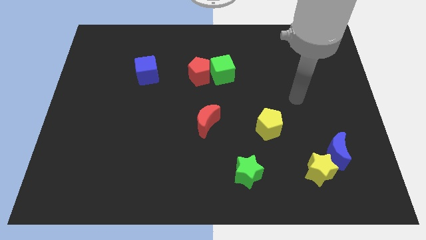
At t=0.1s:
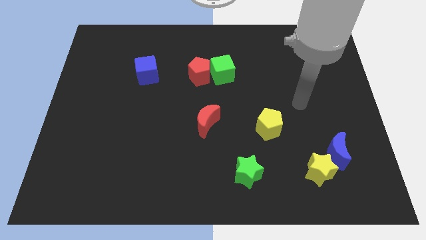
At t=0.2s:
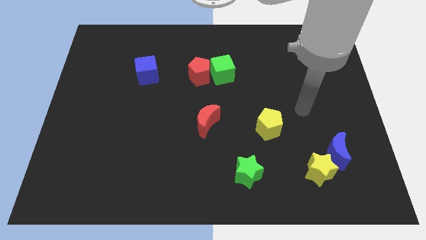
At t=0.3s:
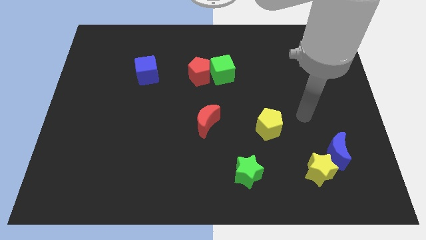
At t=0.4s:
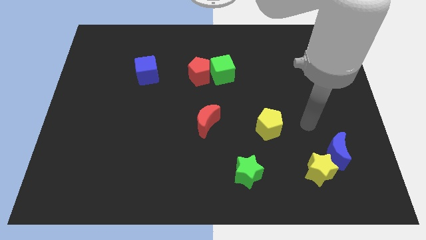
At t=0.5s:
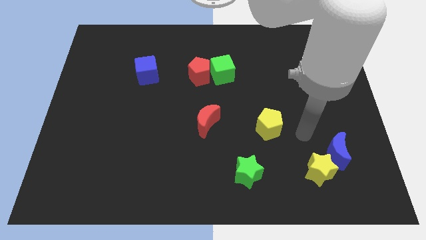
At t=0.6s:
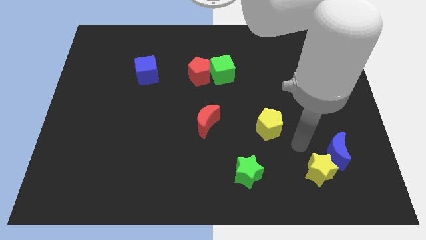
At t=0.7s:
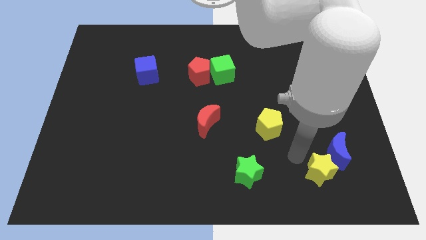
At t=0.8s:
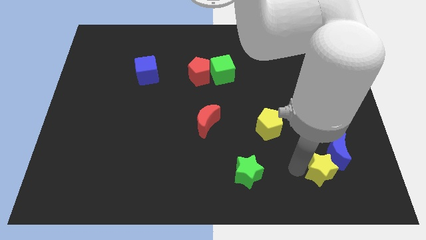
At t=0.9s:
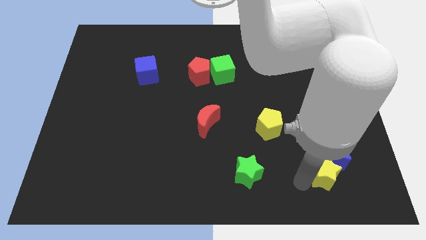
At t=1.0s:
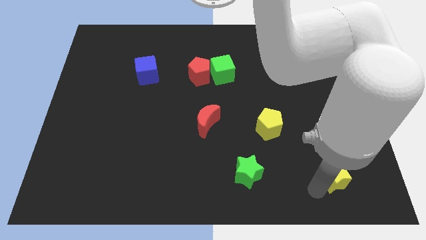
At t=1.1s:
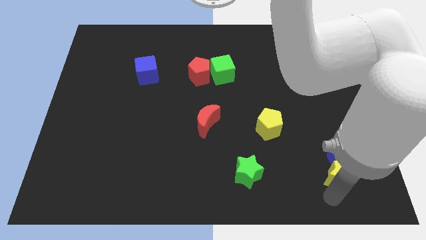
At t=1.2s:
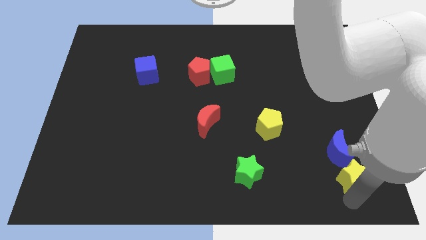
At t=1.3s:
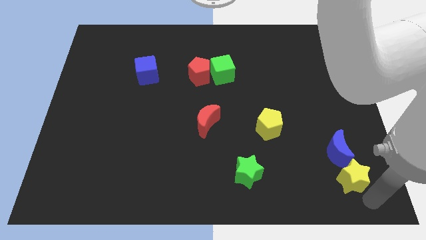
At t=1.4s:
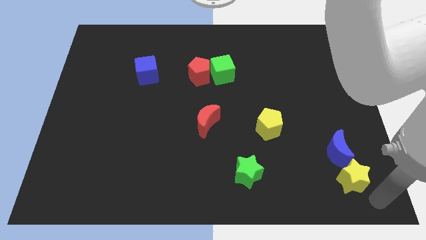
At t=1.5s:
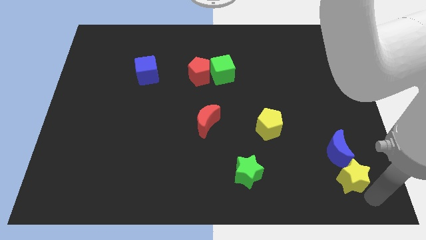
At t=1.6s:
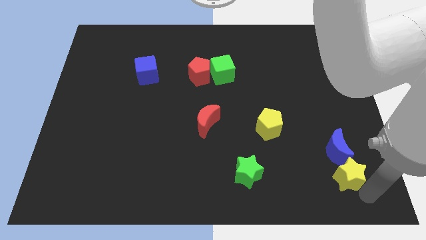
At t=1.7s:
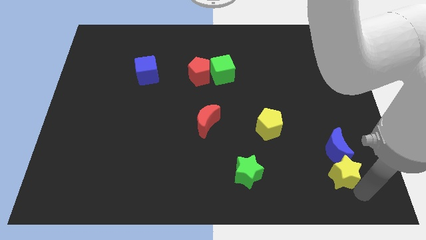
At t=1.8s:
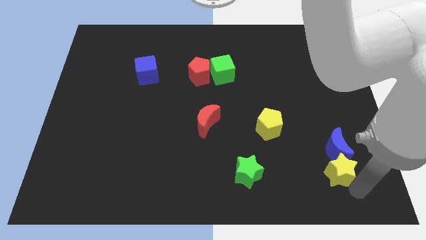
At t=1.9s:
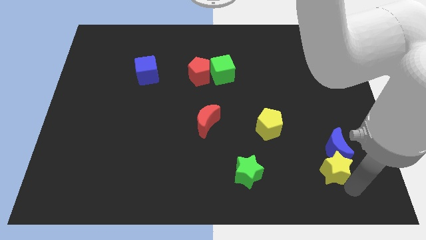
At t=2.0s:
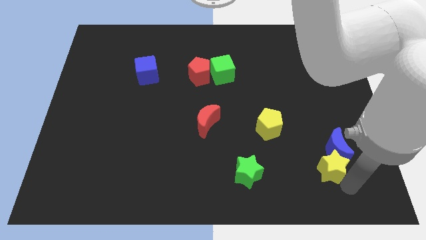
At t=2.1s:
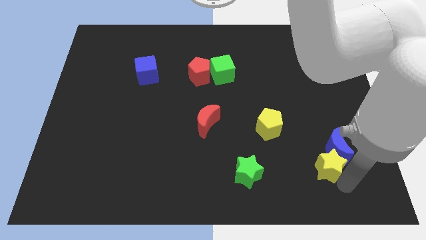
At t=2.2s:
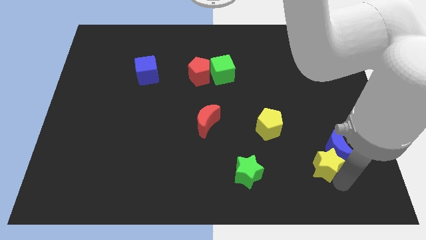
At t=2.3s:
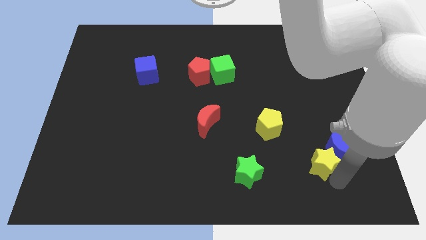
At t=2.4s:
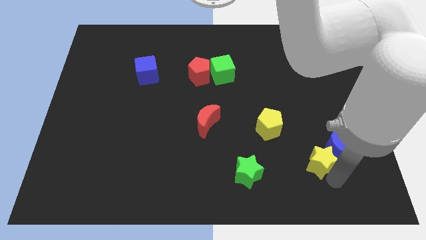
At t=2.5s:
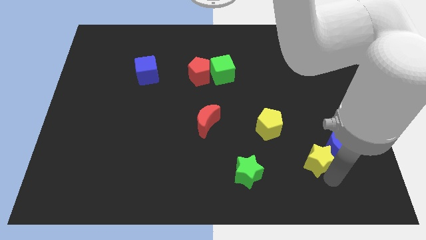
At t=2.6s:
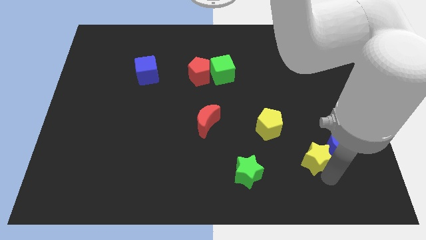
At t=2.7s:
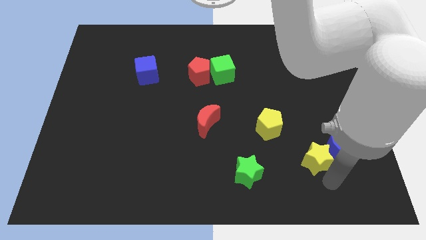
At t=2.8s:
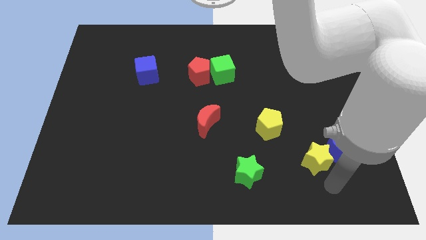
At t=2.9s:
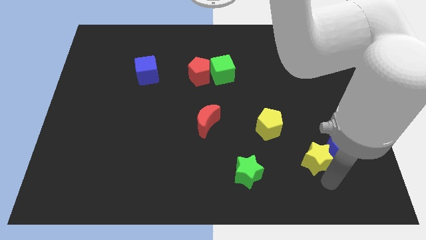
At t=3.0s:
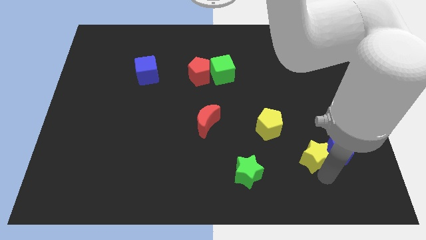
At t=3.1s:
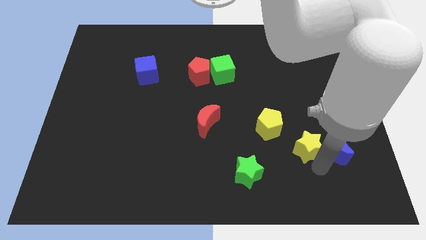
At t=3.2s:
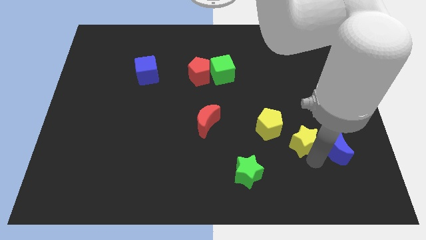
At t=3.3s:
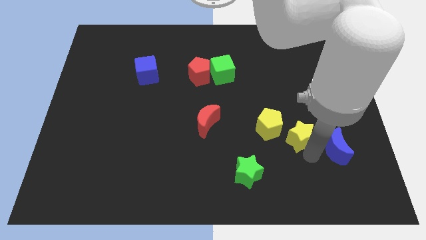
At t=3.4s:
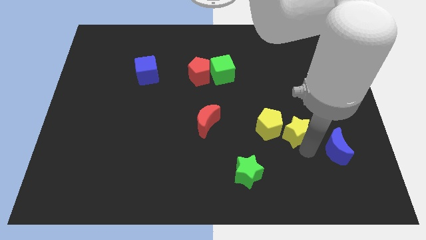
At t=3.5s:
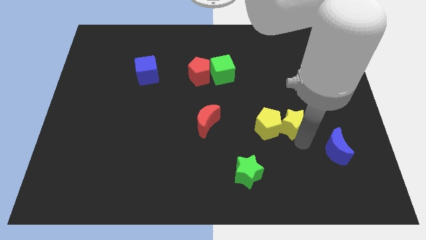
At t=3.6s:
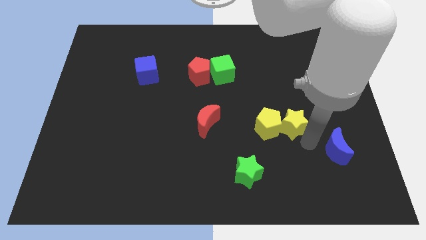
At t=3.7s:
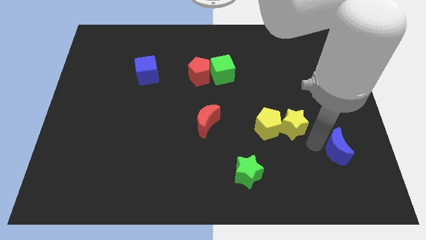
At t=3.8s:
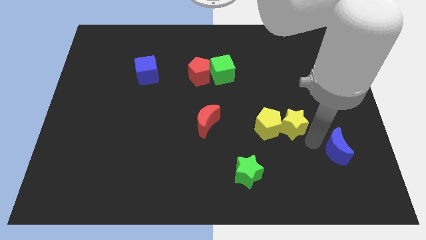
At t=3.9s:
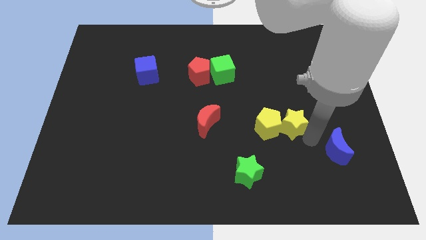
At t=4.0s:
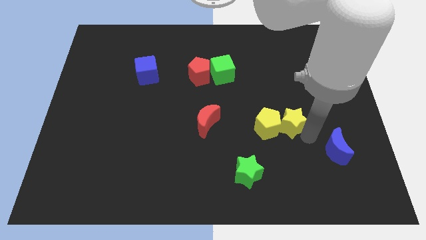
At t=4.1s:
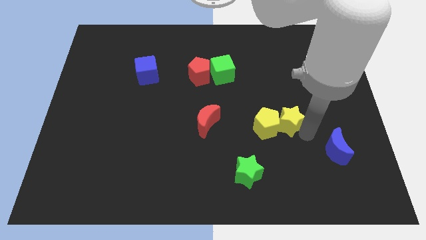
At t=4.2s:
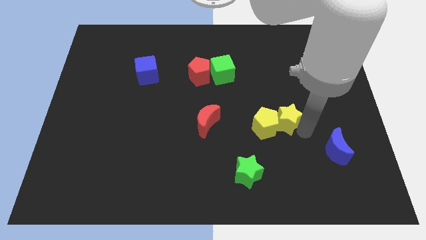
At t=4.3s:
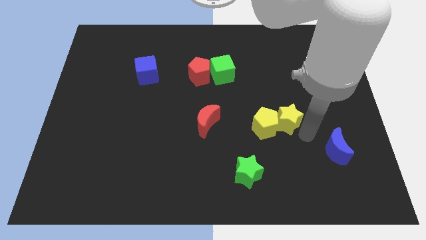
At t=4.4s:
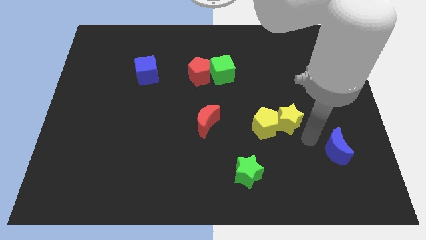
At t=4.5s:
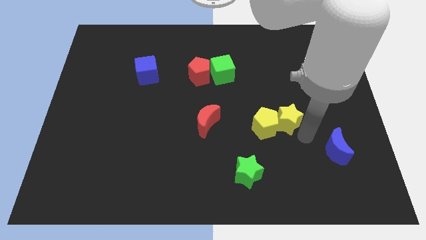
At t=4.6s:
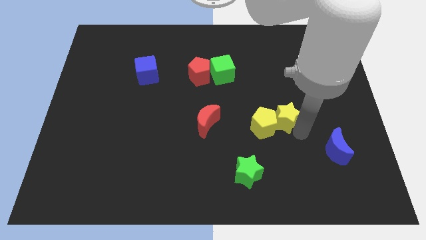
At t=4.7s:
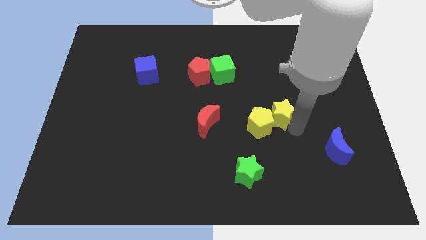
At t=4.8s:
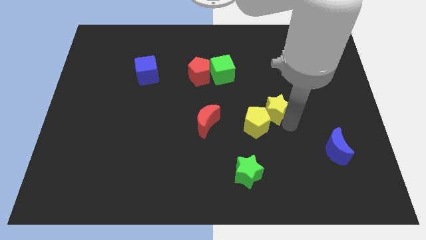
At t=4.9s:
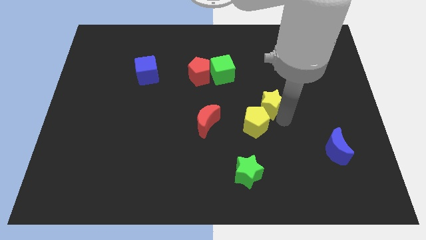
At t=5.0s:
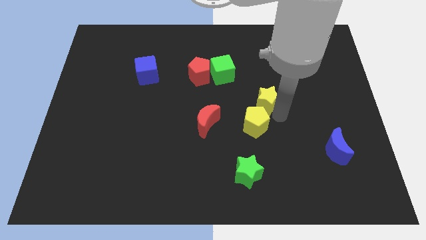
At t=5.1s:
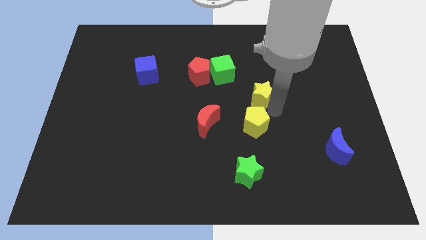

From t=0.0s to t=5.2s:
push the yellow star to the bottom right side of the green cube

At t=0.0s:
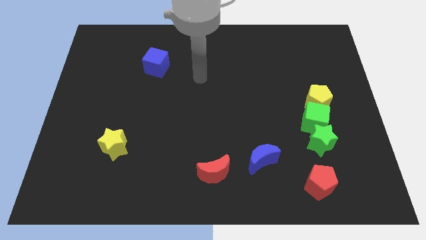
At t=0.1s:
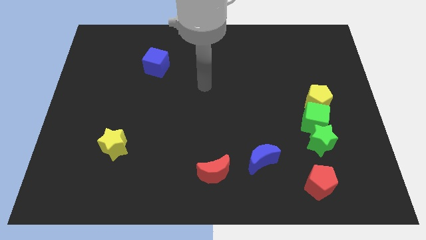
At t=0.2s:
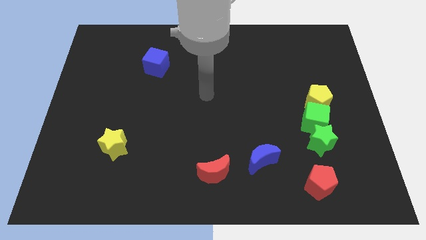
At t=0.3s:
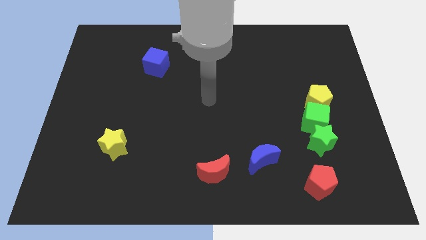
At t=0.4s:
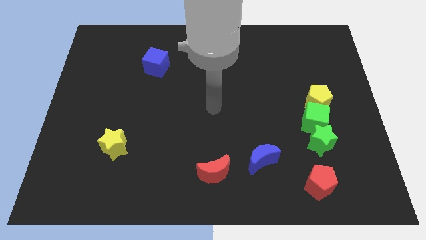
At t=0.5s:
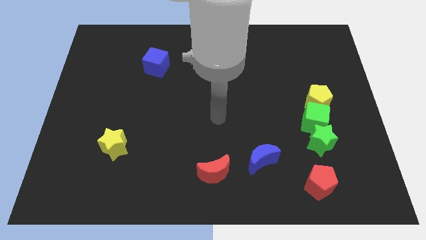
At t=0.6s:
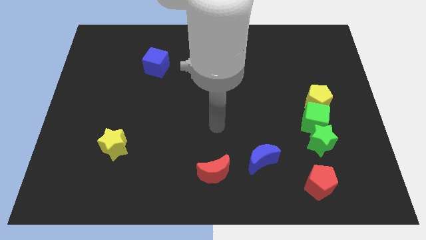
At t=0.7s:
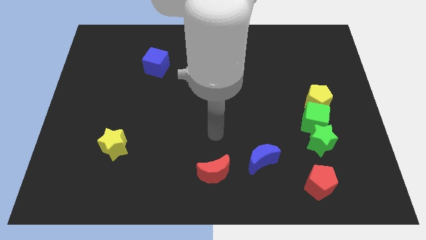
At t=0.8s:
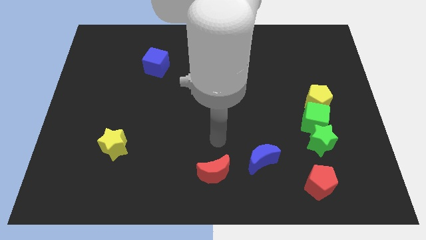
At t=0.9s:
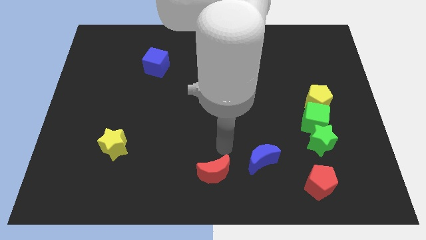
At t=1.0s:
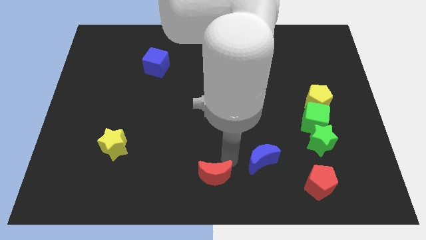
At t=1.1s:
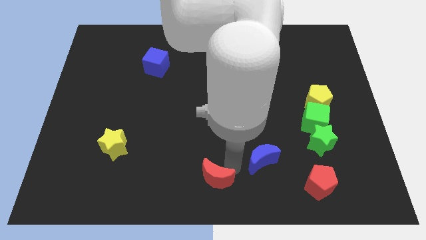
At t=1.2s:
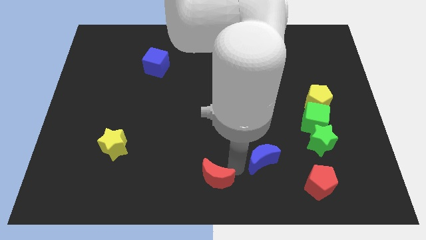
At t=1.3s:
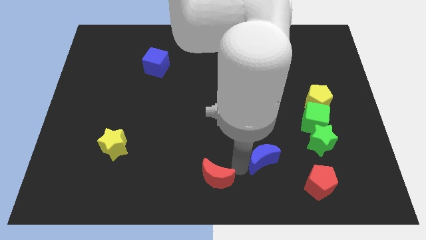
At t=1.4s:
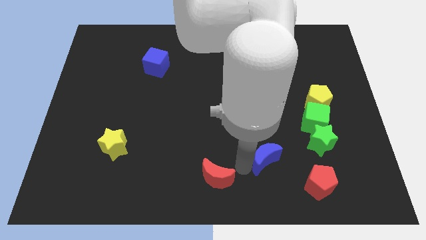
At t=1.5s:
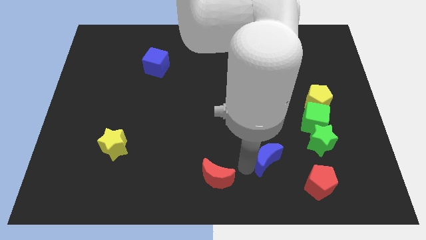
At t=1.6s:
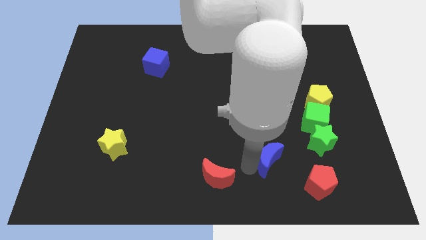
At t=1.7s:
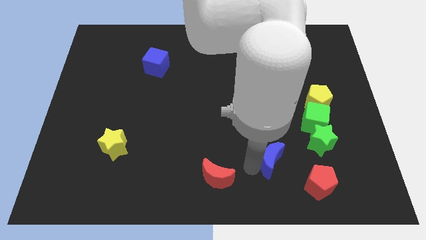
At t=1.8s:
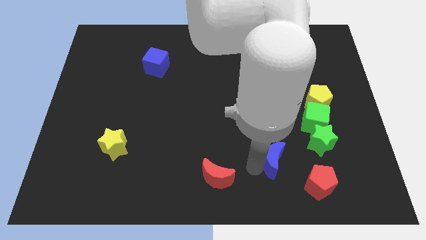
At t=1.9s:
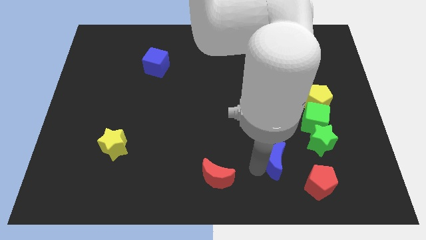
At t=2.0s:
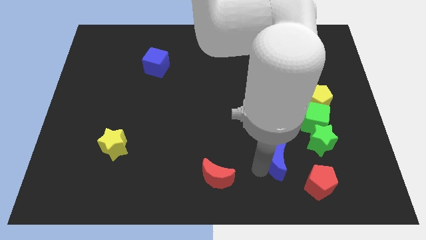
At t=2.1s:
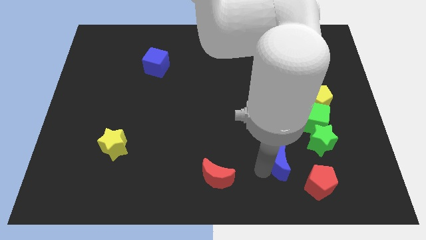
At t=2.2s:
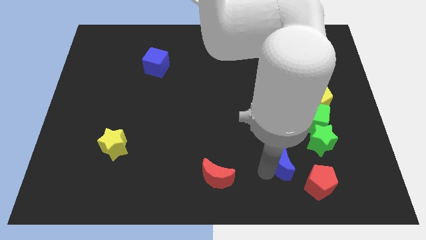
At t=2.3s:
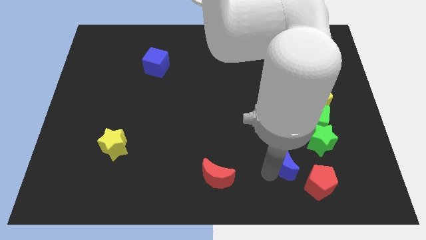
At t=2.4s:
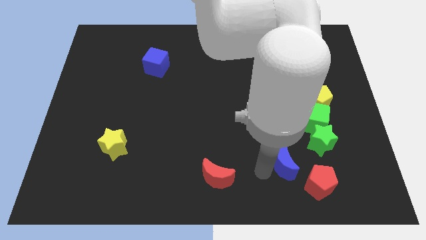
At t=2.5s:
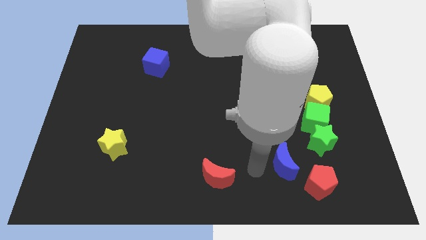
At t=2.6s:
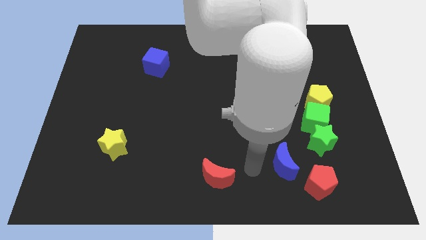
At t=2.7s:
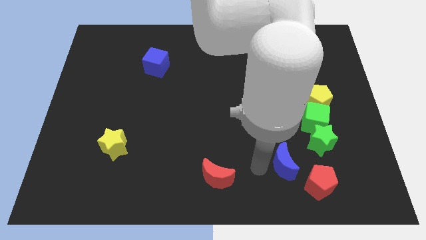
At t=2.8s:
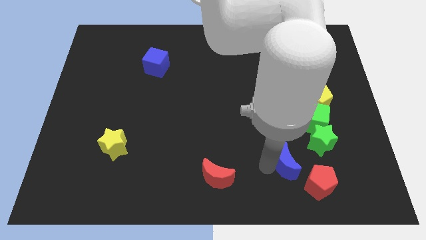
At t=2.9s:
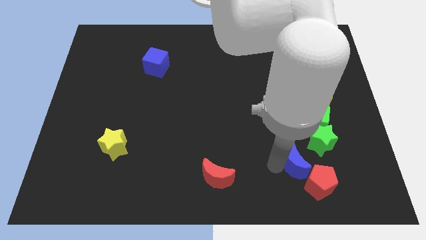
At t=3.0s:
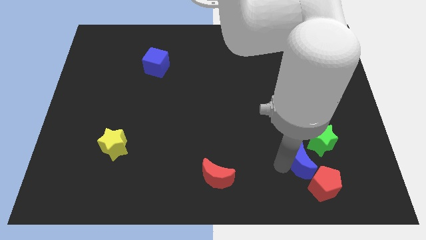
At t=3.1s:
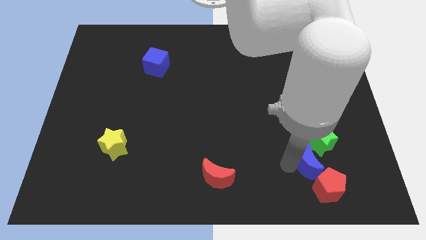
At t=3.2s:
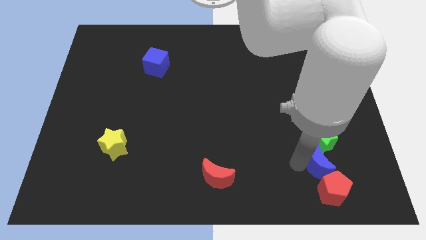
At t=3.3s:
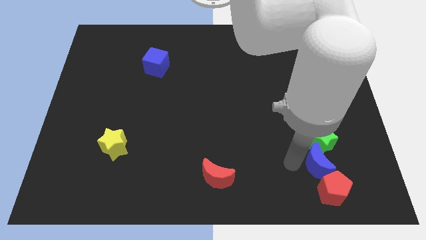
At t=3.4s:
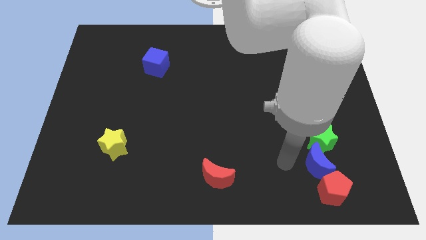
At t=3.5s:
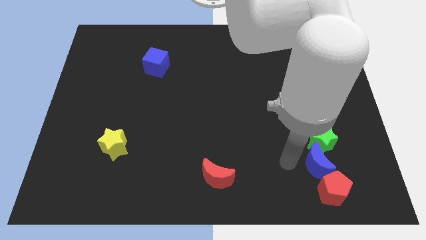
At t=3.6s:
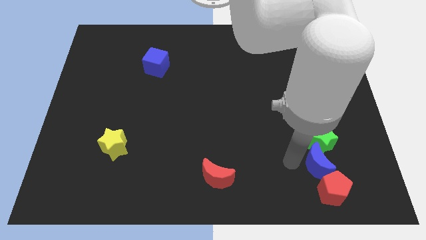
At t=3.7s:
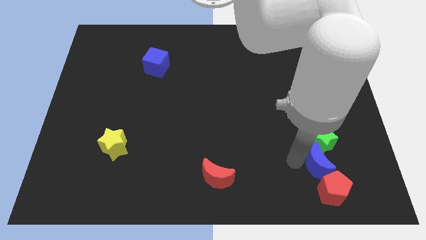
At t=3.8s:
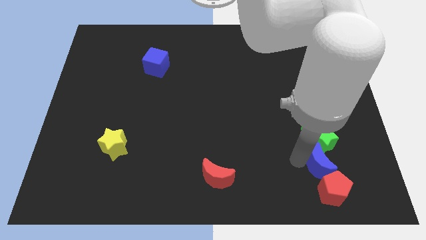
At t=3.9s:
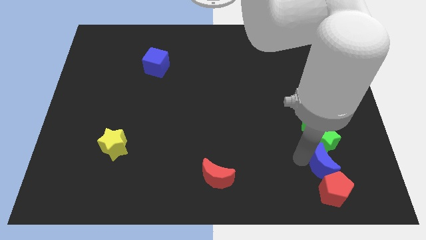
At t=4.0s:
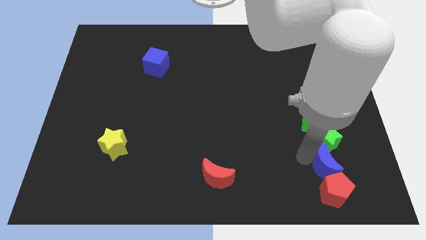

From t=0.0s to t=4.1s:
move the blue moon to the top right of the red pentagon
